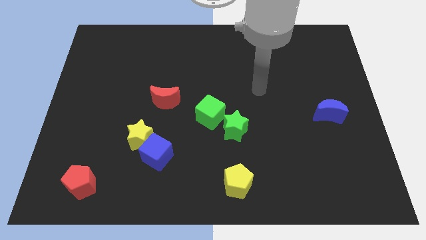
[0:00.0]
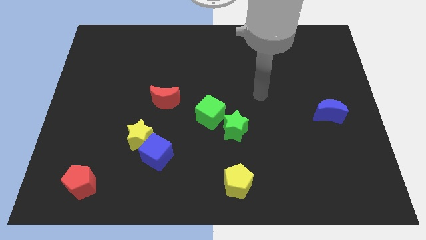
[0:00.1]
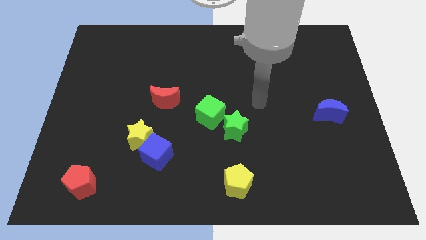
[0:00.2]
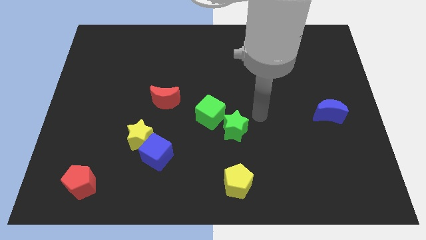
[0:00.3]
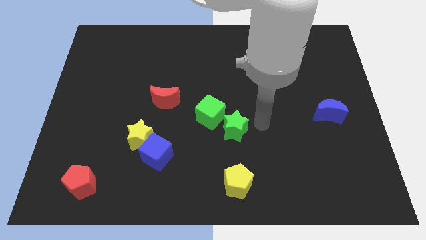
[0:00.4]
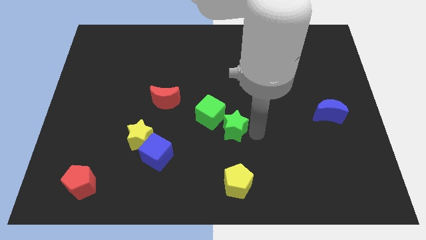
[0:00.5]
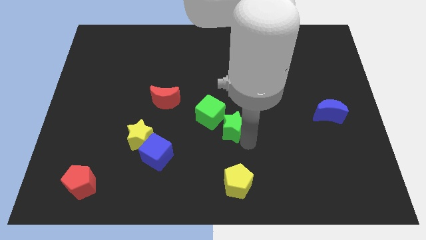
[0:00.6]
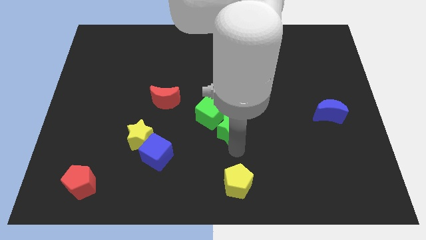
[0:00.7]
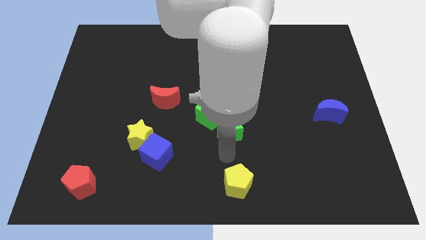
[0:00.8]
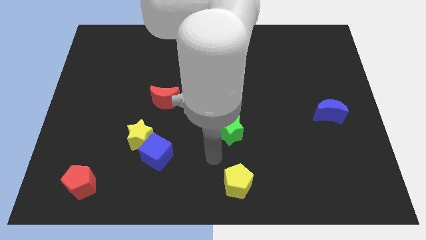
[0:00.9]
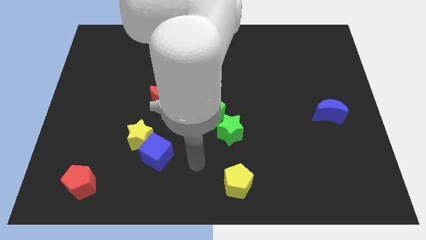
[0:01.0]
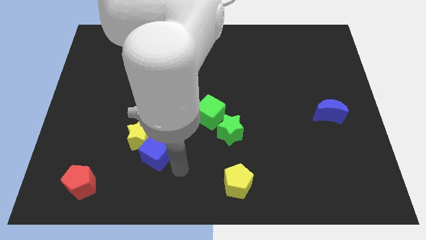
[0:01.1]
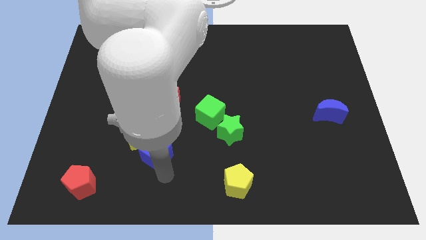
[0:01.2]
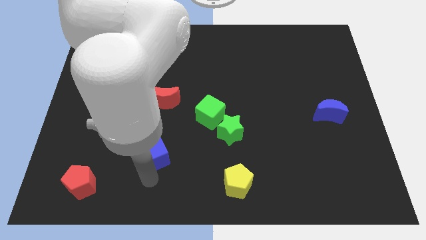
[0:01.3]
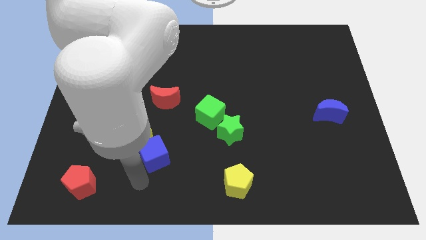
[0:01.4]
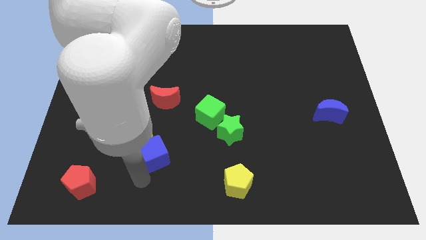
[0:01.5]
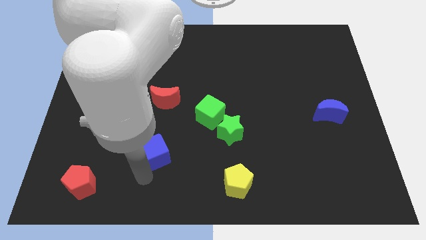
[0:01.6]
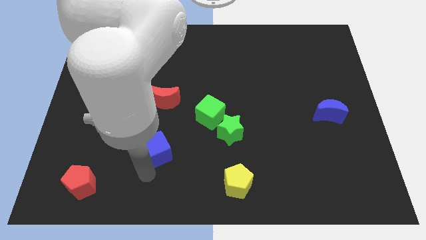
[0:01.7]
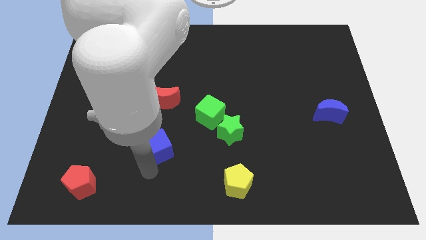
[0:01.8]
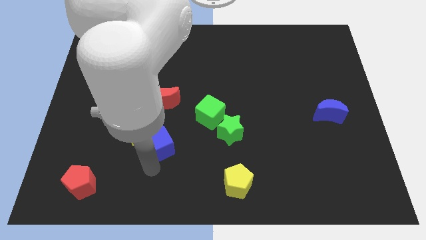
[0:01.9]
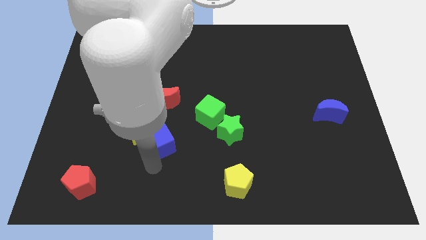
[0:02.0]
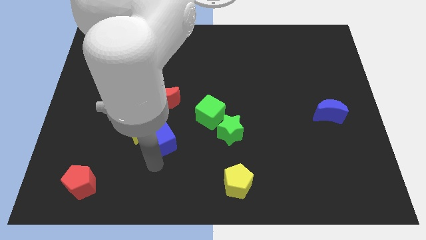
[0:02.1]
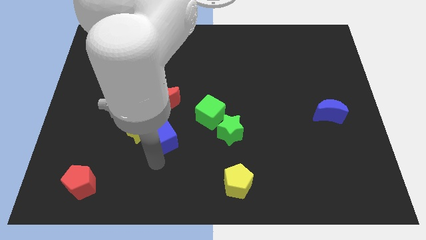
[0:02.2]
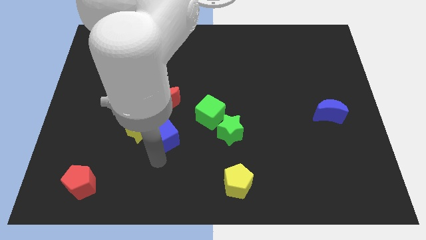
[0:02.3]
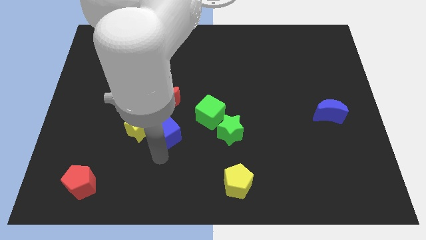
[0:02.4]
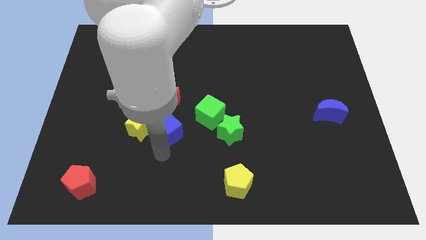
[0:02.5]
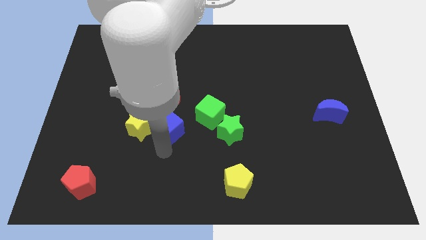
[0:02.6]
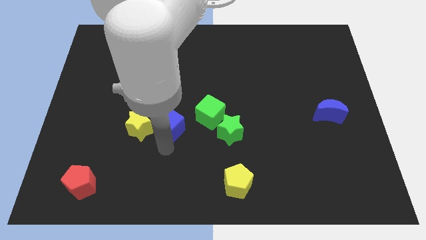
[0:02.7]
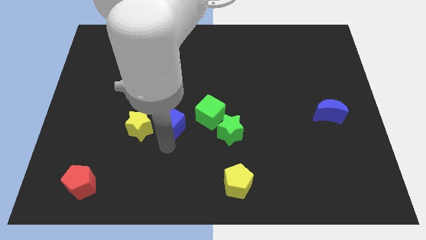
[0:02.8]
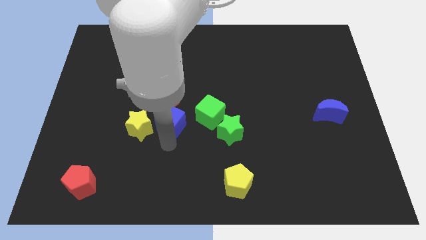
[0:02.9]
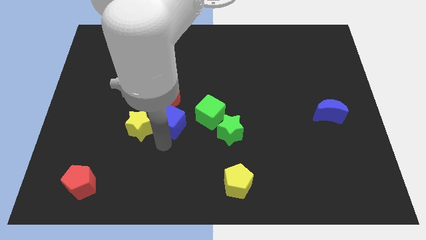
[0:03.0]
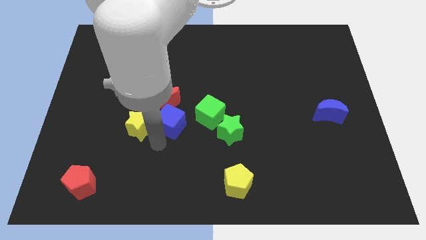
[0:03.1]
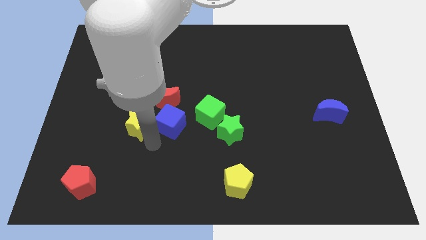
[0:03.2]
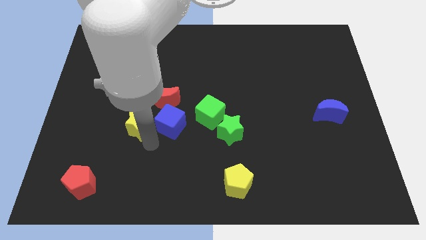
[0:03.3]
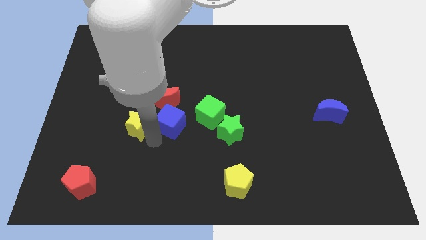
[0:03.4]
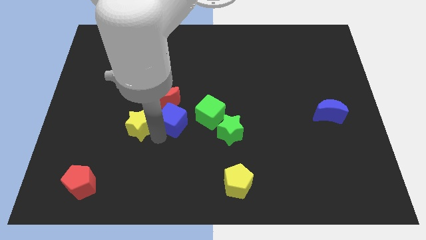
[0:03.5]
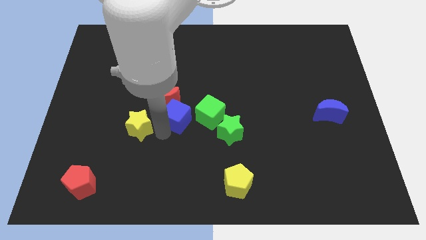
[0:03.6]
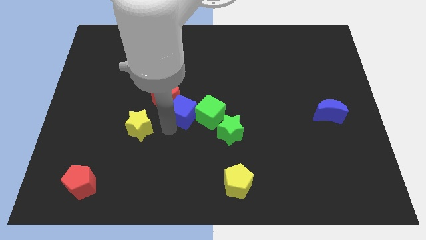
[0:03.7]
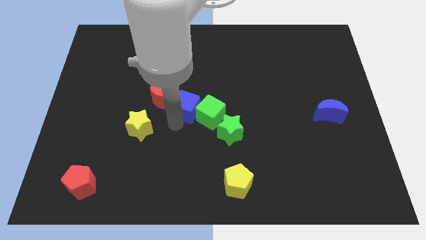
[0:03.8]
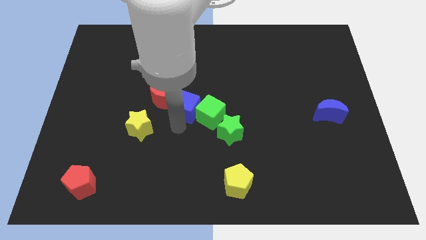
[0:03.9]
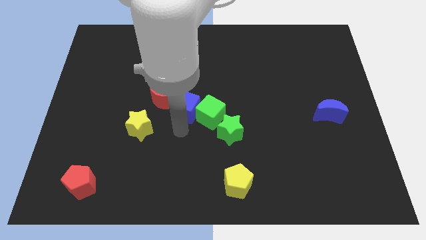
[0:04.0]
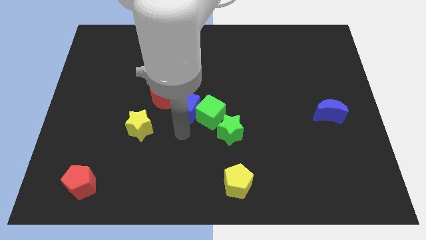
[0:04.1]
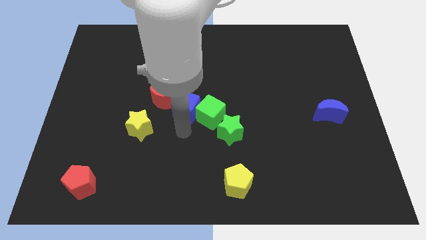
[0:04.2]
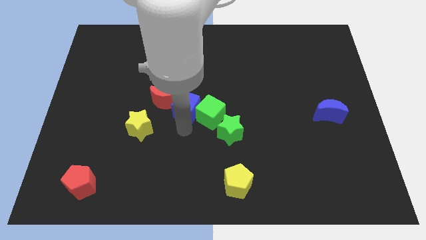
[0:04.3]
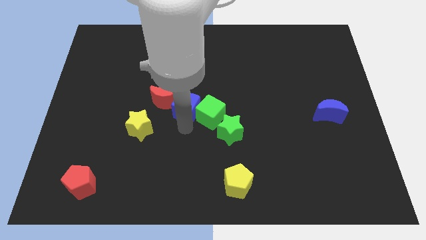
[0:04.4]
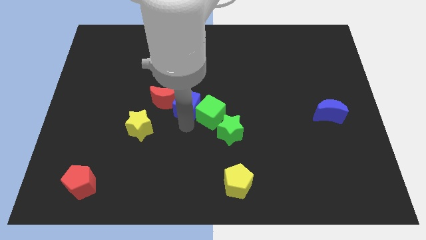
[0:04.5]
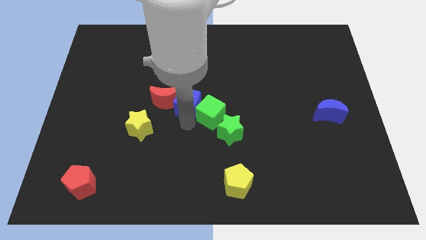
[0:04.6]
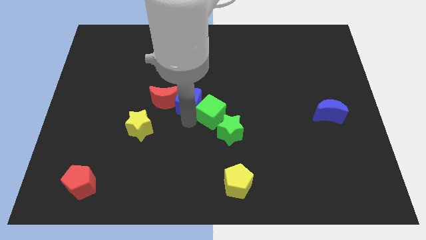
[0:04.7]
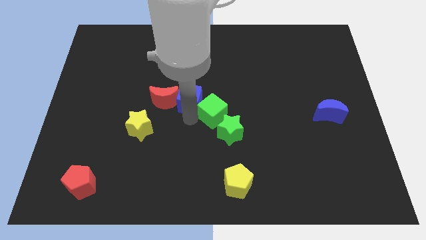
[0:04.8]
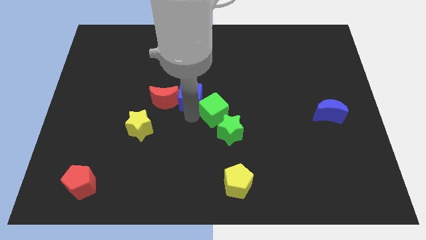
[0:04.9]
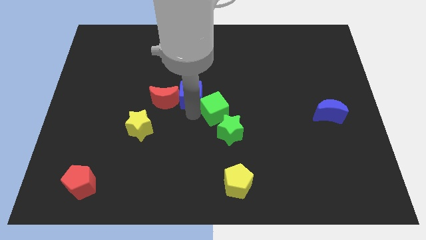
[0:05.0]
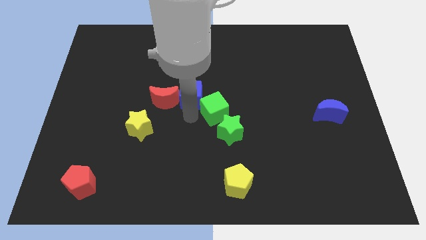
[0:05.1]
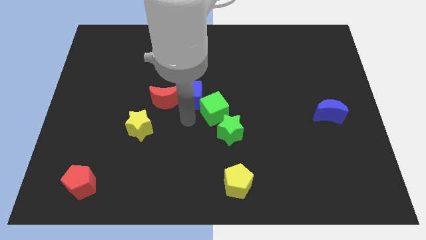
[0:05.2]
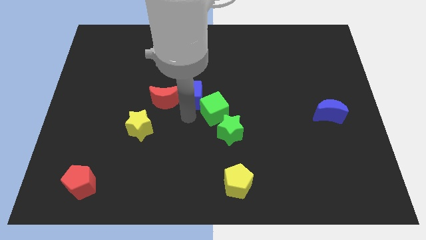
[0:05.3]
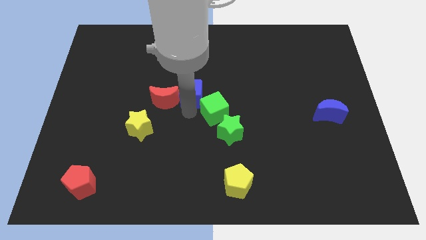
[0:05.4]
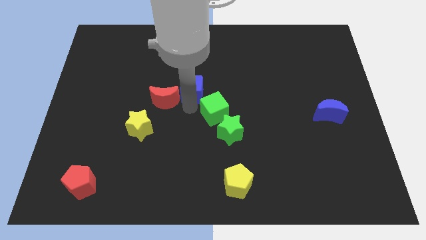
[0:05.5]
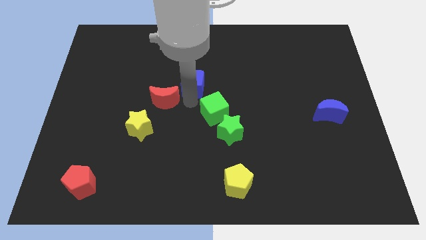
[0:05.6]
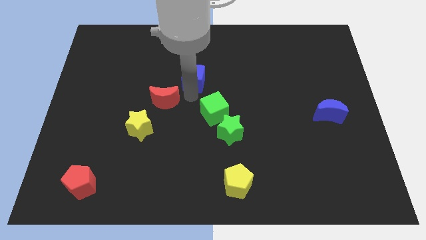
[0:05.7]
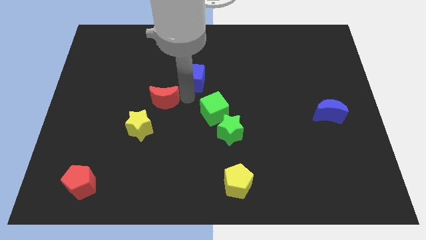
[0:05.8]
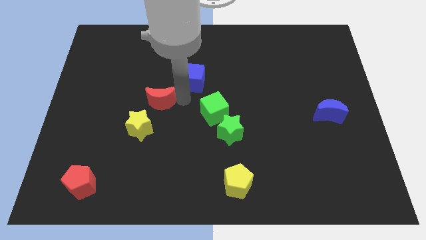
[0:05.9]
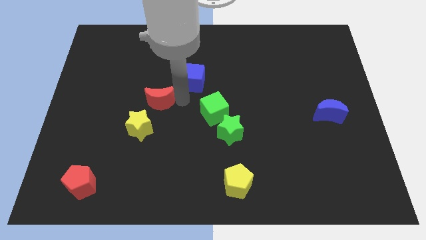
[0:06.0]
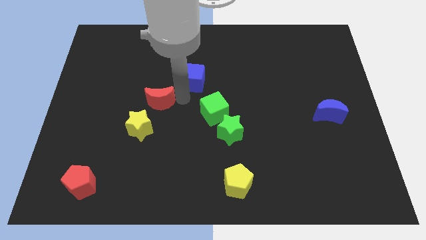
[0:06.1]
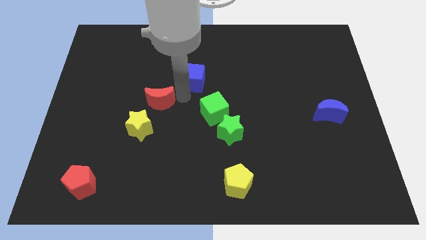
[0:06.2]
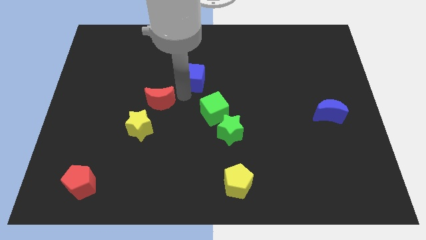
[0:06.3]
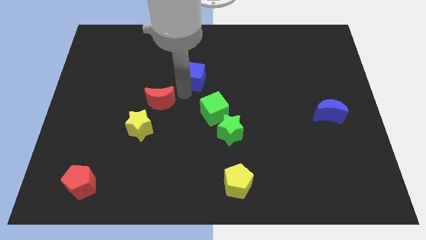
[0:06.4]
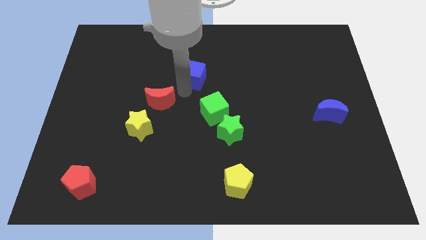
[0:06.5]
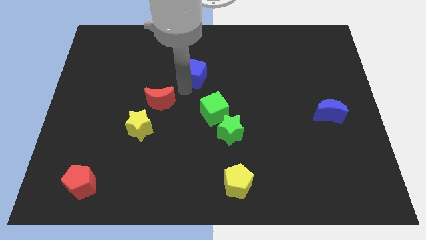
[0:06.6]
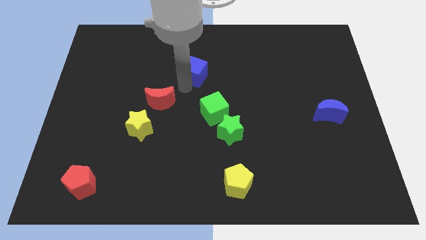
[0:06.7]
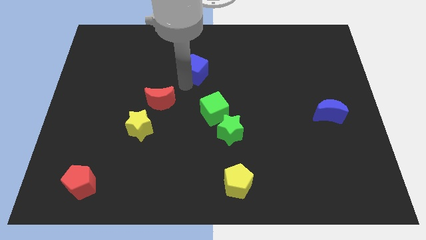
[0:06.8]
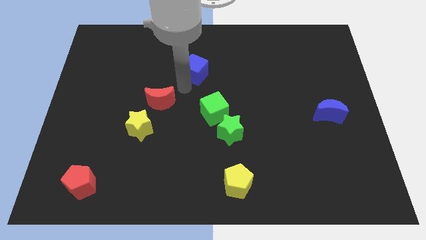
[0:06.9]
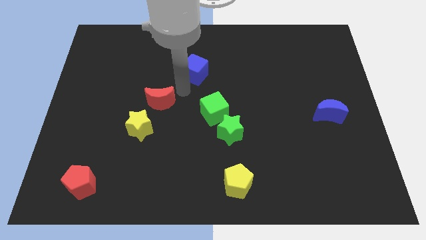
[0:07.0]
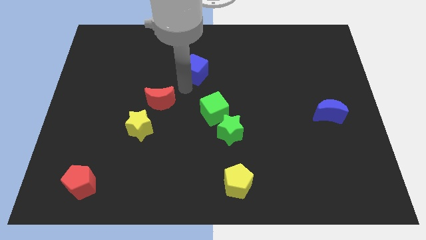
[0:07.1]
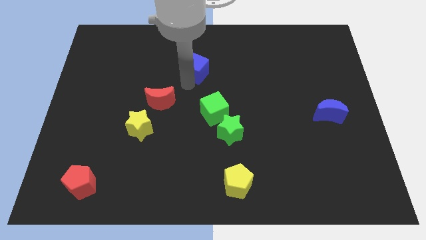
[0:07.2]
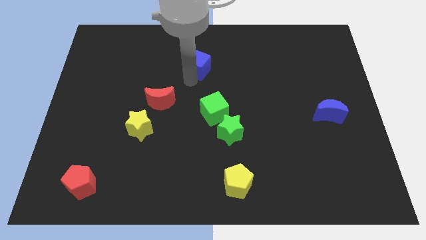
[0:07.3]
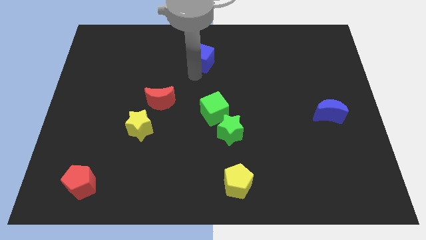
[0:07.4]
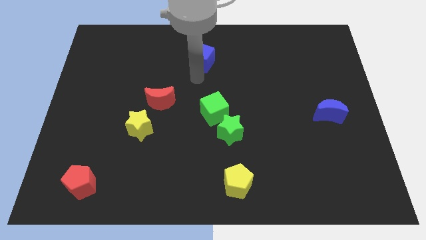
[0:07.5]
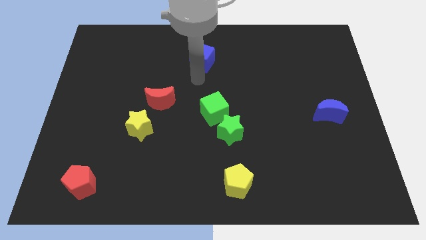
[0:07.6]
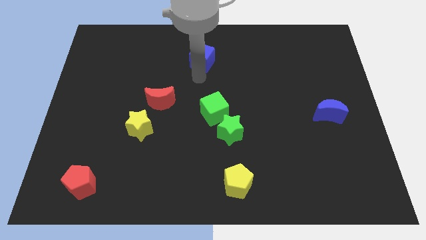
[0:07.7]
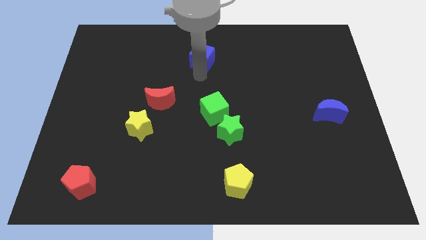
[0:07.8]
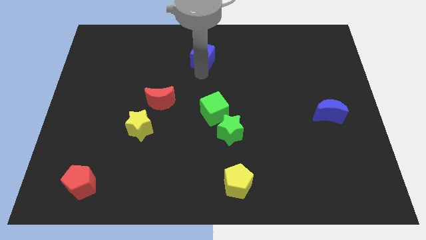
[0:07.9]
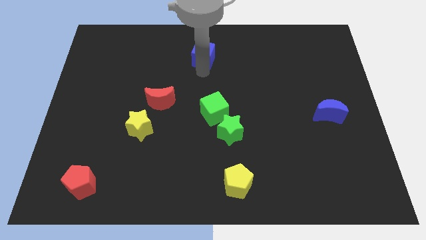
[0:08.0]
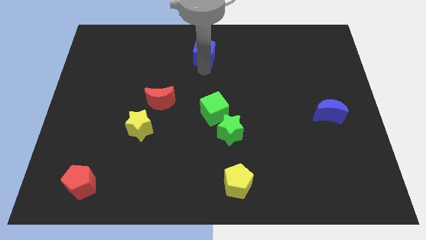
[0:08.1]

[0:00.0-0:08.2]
put the blue cube to the top side
